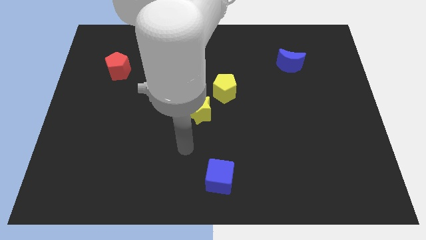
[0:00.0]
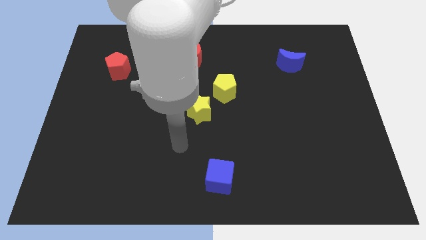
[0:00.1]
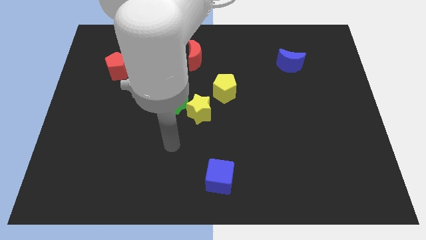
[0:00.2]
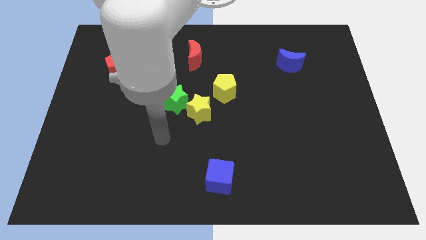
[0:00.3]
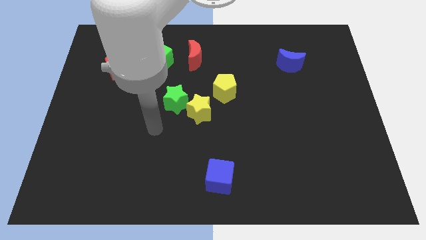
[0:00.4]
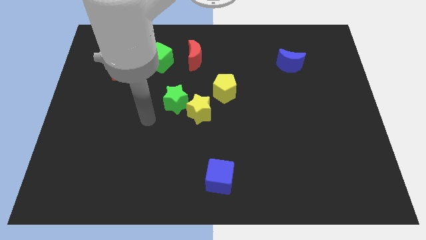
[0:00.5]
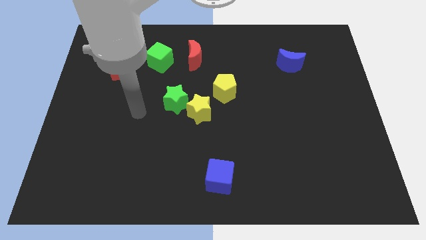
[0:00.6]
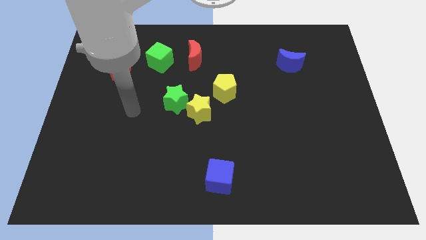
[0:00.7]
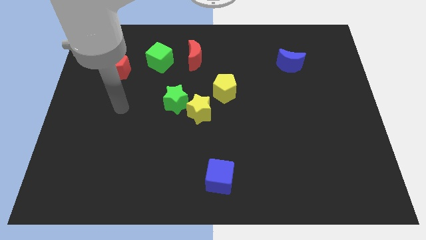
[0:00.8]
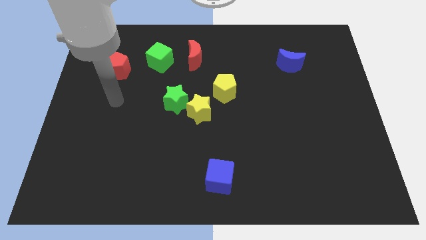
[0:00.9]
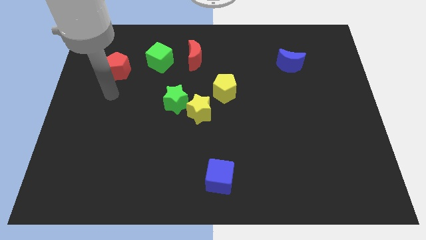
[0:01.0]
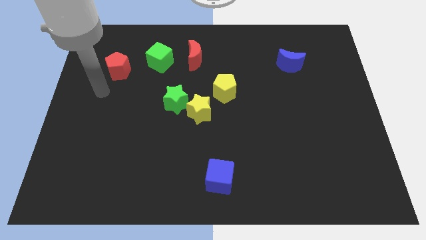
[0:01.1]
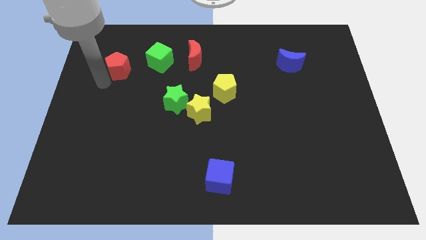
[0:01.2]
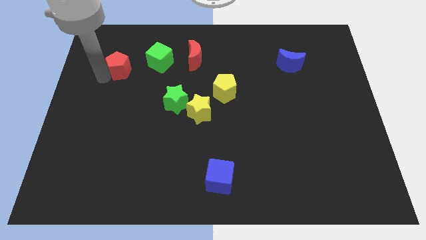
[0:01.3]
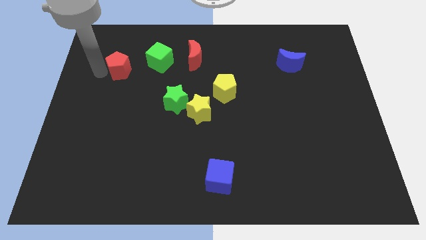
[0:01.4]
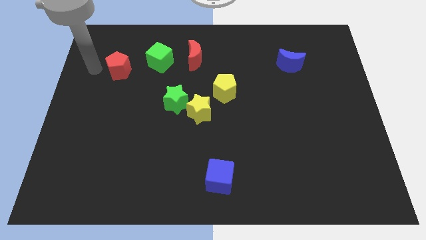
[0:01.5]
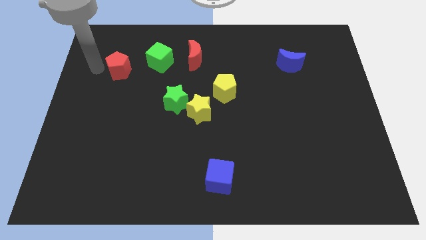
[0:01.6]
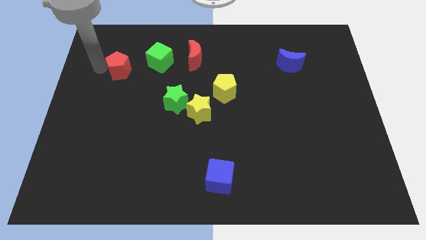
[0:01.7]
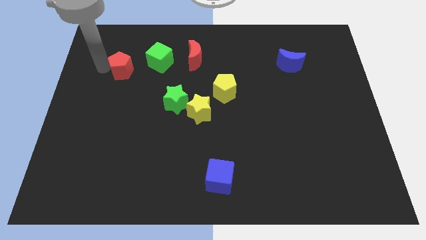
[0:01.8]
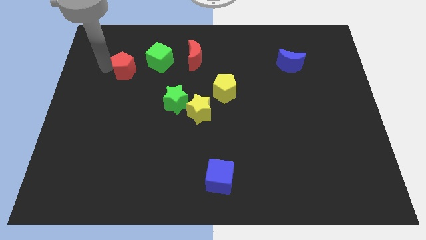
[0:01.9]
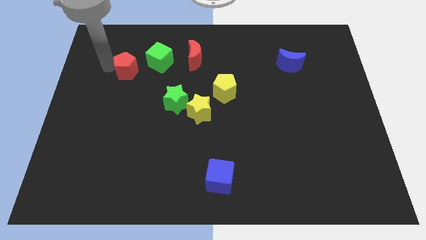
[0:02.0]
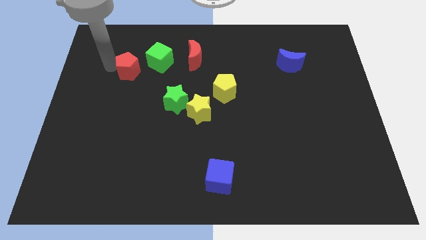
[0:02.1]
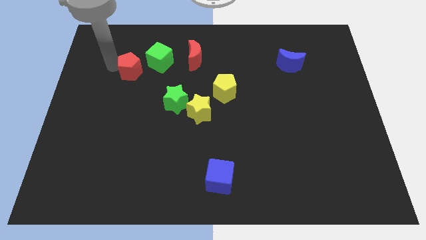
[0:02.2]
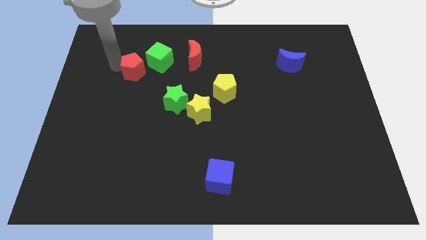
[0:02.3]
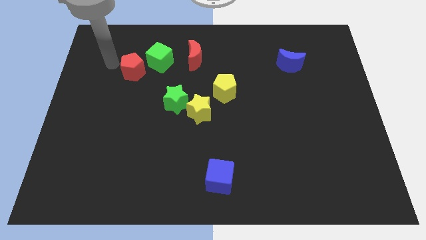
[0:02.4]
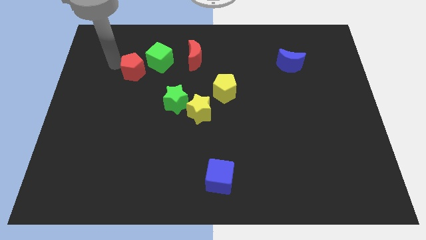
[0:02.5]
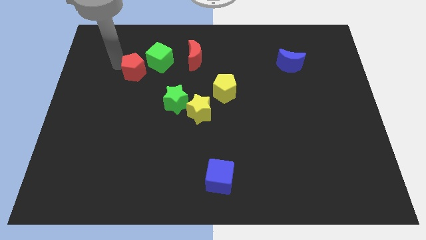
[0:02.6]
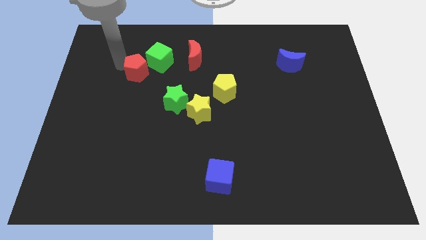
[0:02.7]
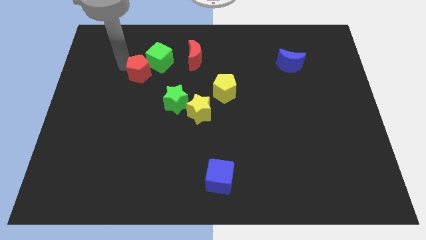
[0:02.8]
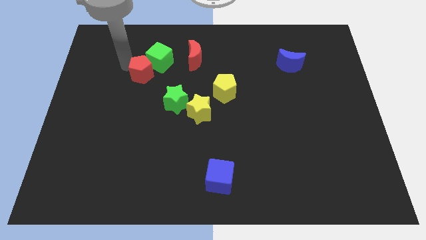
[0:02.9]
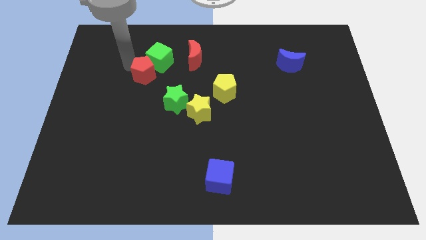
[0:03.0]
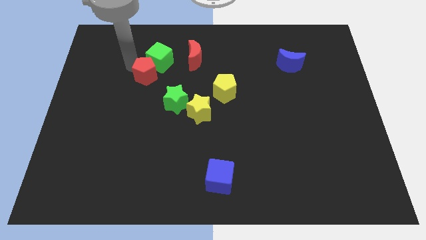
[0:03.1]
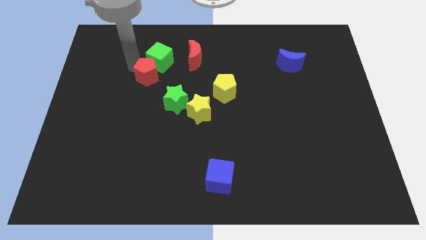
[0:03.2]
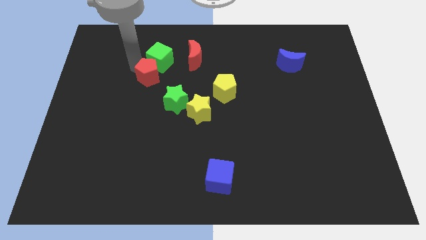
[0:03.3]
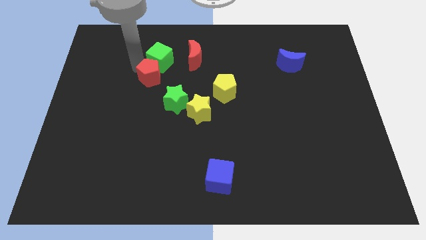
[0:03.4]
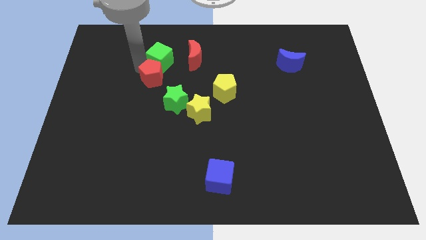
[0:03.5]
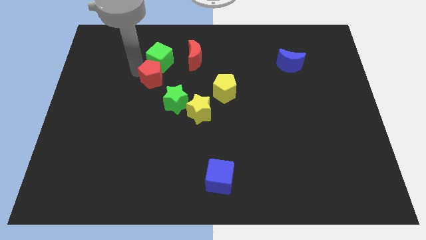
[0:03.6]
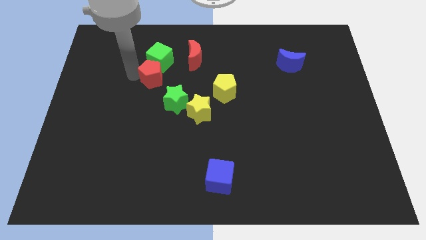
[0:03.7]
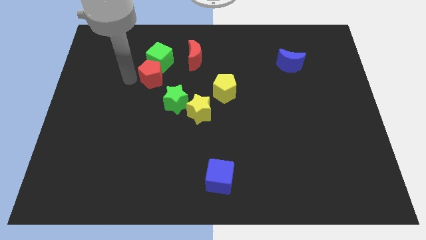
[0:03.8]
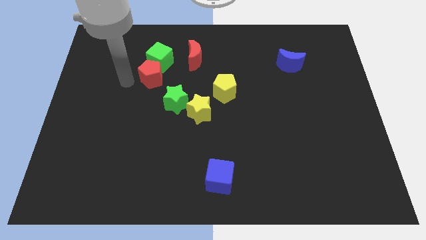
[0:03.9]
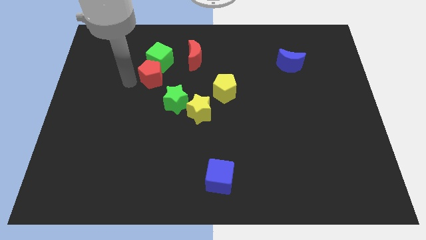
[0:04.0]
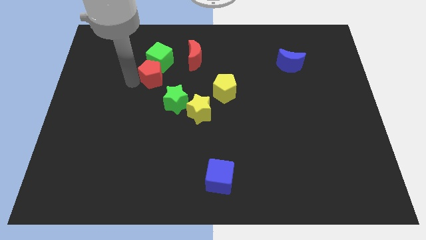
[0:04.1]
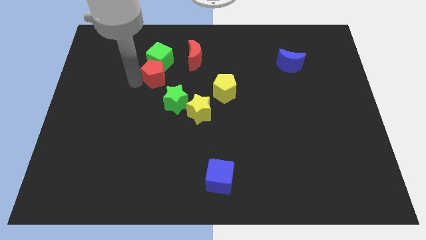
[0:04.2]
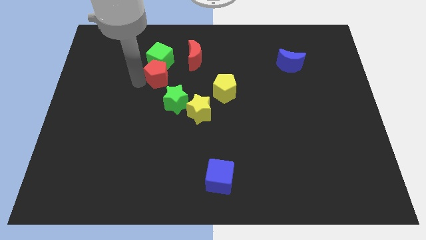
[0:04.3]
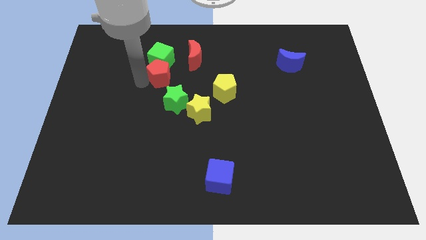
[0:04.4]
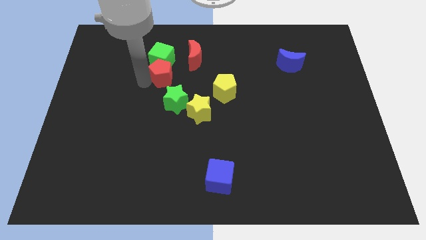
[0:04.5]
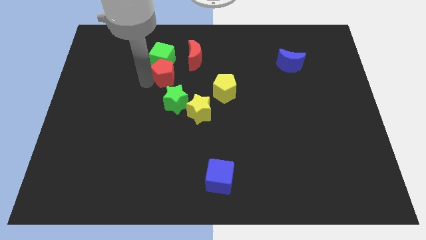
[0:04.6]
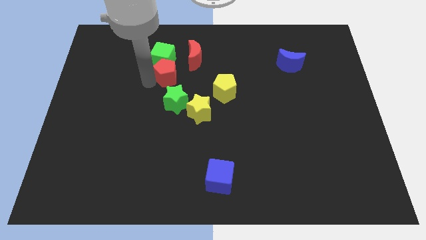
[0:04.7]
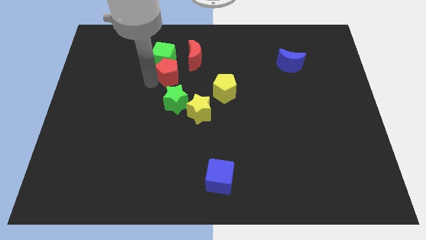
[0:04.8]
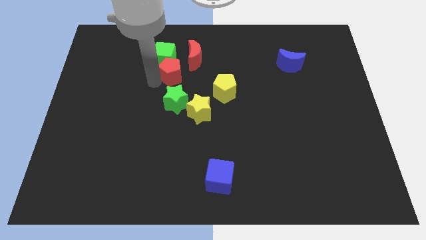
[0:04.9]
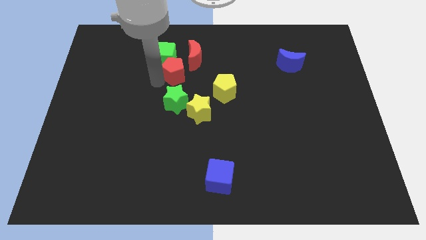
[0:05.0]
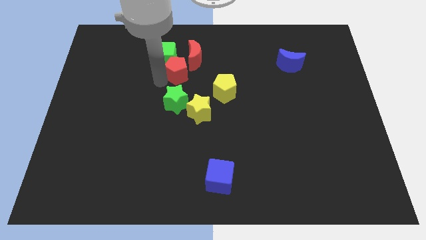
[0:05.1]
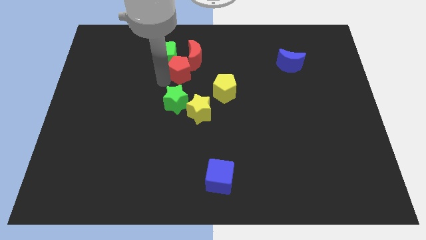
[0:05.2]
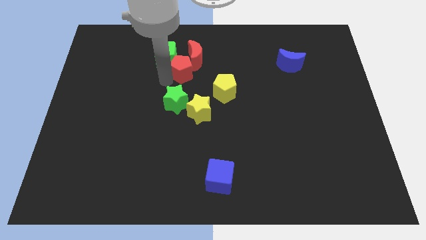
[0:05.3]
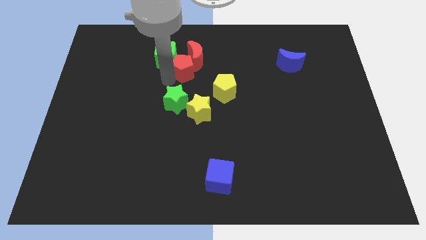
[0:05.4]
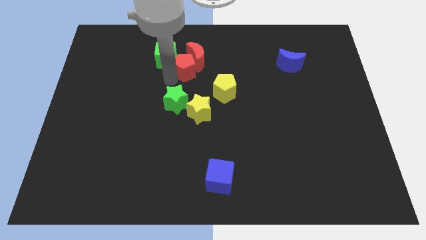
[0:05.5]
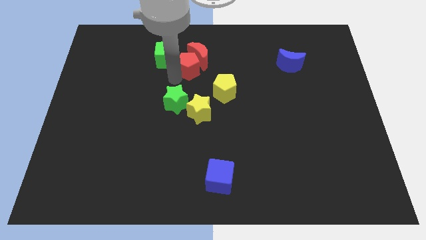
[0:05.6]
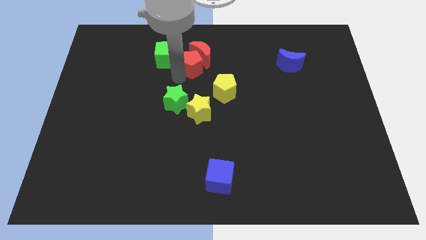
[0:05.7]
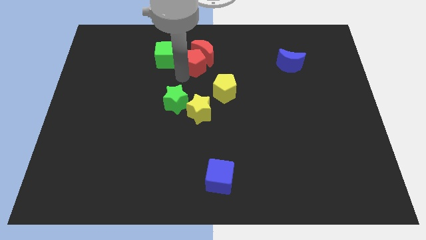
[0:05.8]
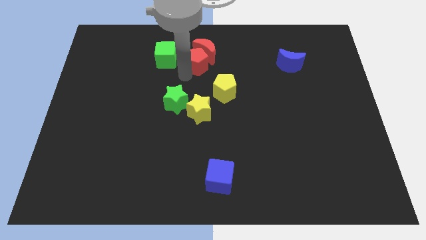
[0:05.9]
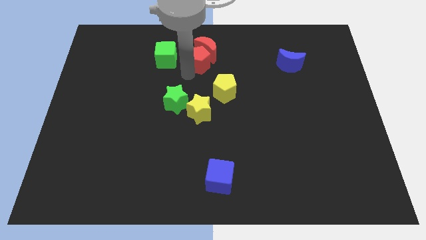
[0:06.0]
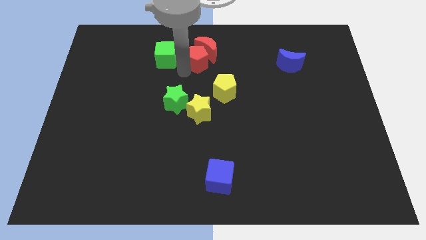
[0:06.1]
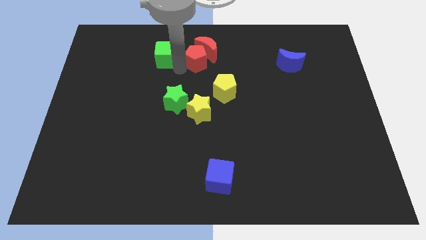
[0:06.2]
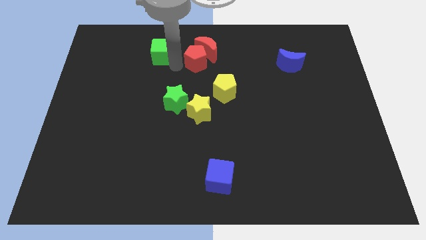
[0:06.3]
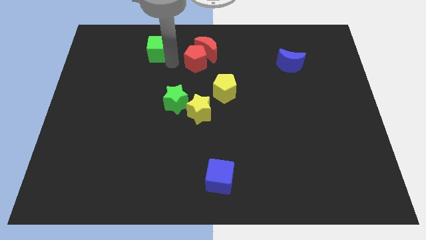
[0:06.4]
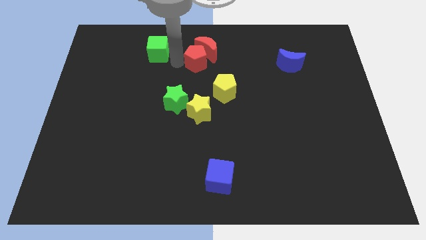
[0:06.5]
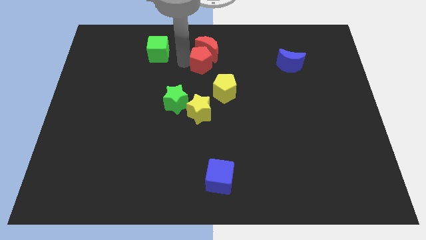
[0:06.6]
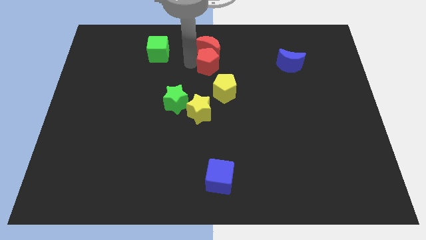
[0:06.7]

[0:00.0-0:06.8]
push the red pentagon to the top of the yellow pentagon
